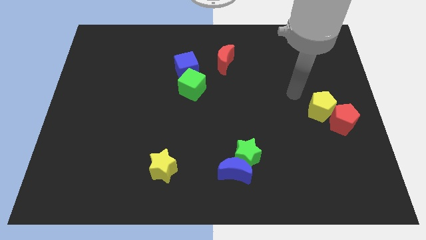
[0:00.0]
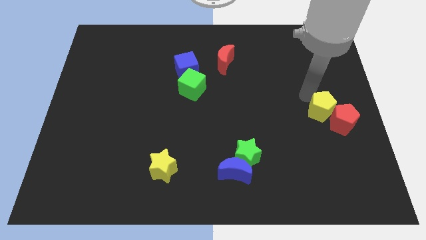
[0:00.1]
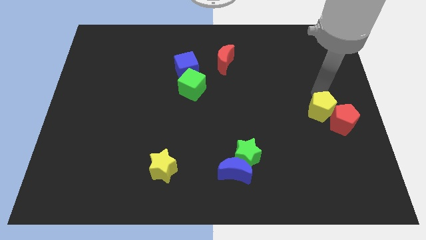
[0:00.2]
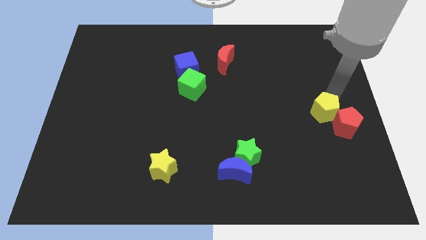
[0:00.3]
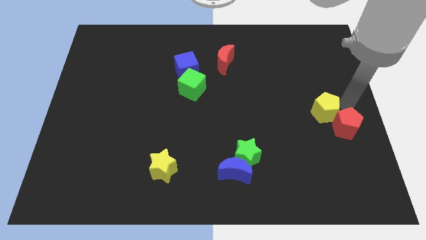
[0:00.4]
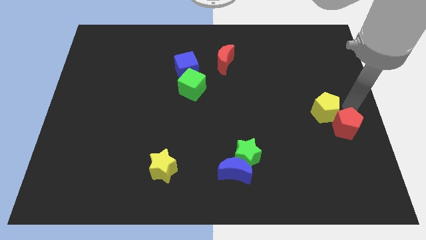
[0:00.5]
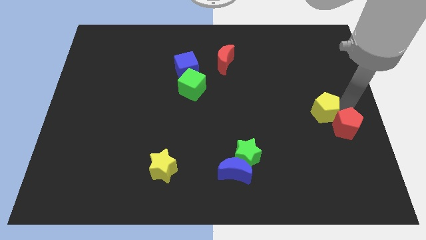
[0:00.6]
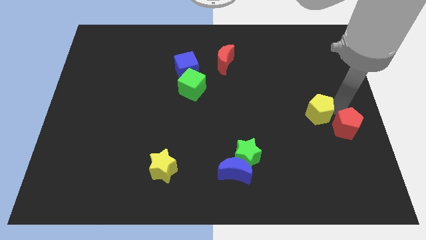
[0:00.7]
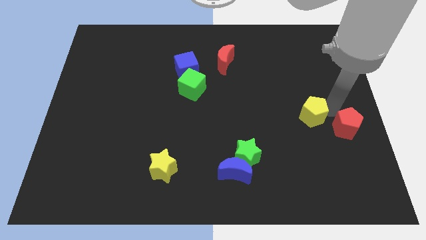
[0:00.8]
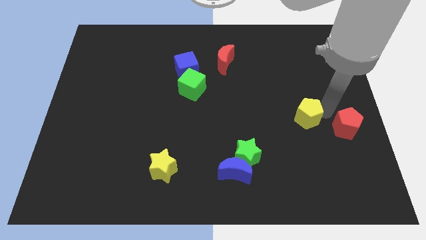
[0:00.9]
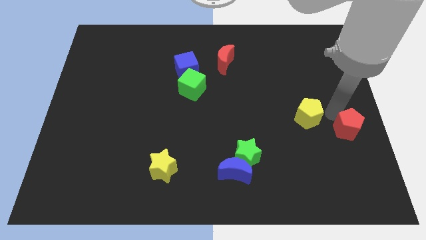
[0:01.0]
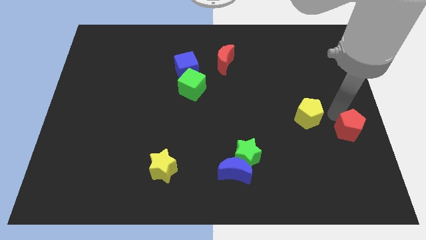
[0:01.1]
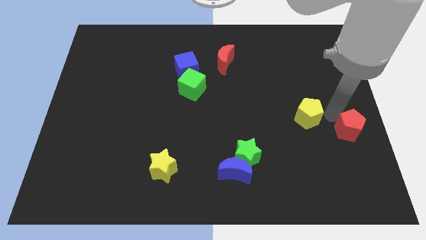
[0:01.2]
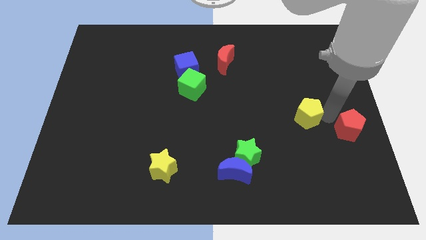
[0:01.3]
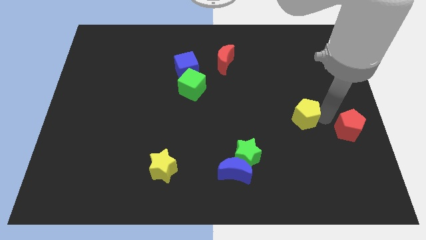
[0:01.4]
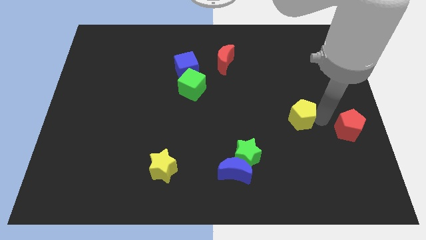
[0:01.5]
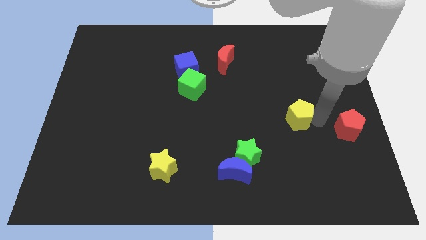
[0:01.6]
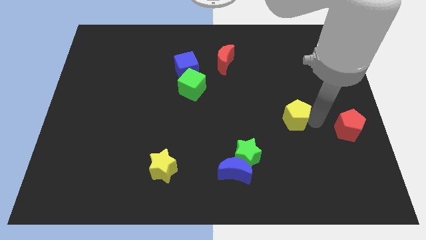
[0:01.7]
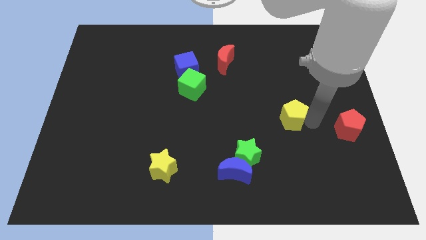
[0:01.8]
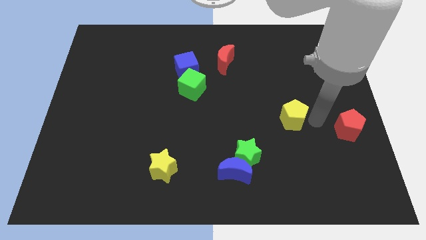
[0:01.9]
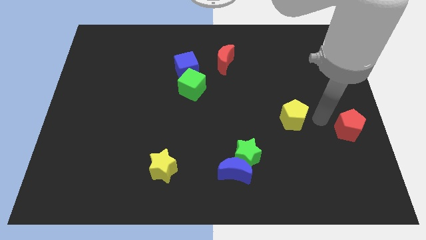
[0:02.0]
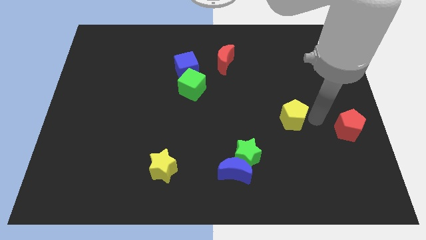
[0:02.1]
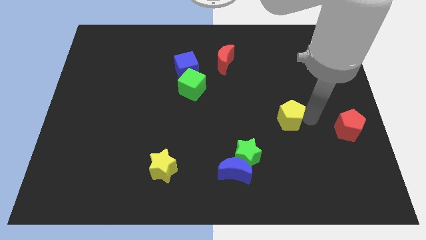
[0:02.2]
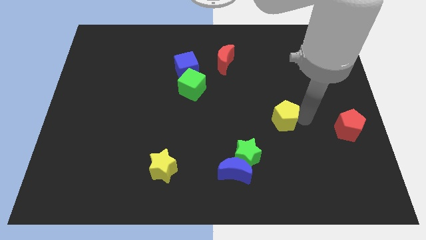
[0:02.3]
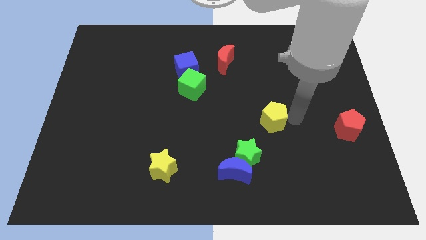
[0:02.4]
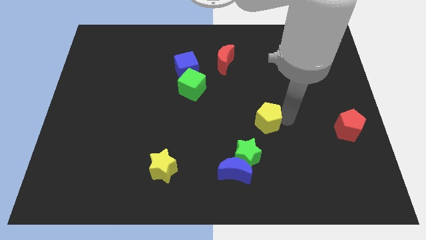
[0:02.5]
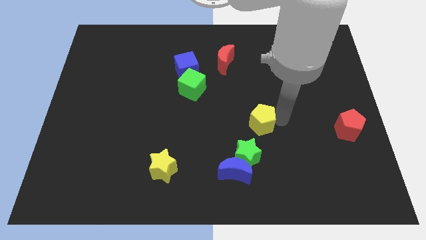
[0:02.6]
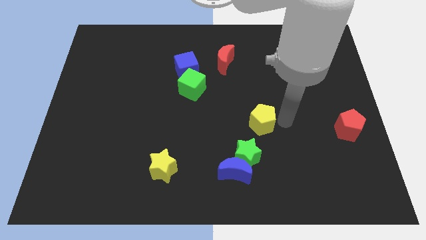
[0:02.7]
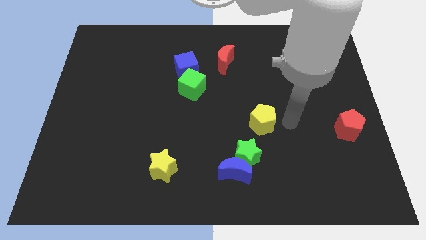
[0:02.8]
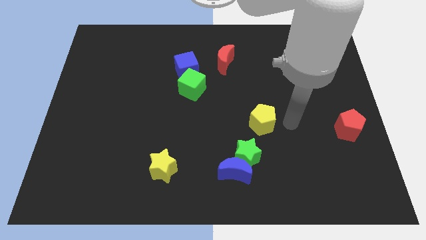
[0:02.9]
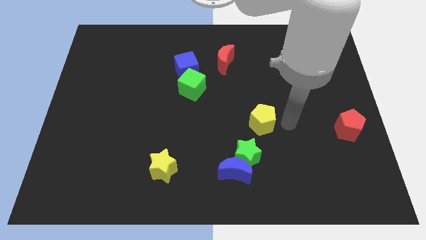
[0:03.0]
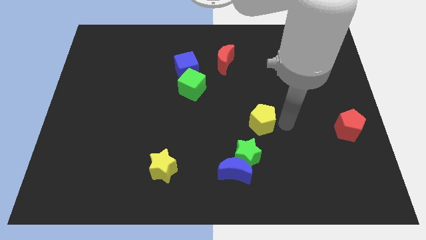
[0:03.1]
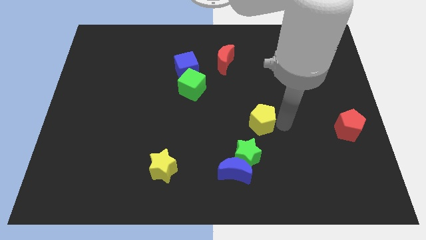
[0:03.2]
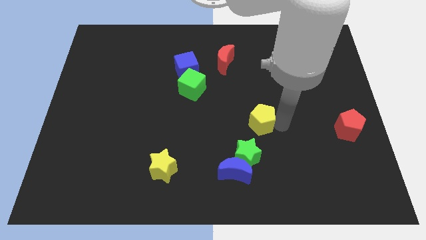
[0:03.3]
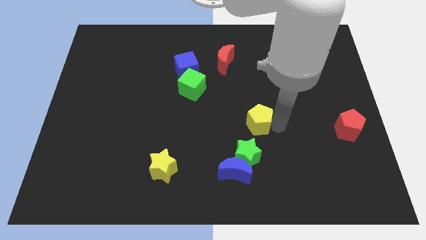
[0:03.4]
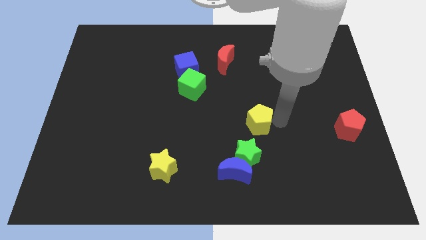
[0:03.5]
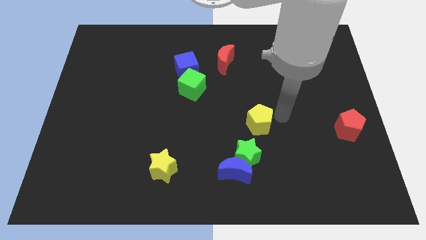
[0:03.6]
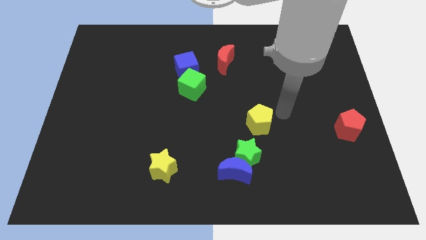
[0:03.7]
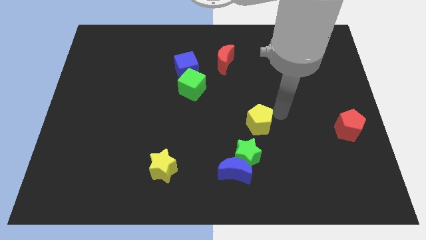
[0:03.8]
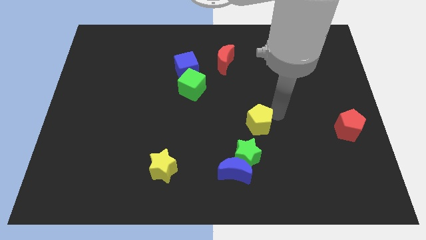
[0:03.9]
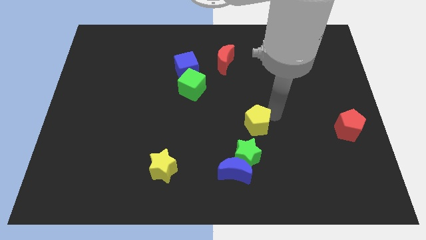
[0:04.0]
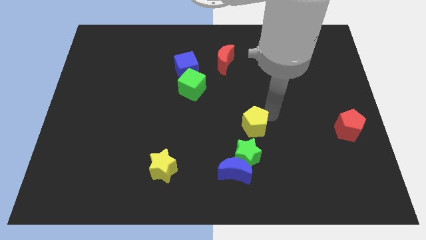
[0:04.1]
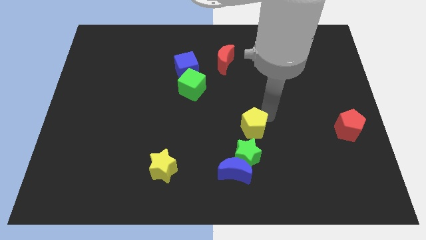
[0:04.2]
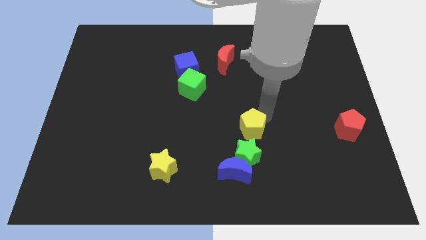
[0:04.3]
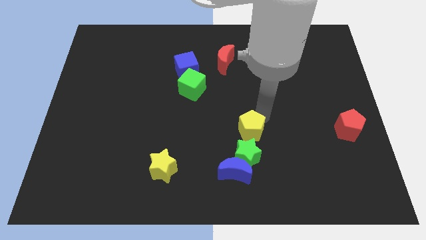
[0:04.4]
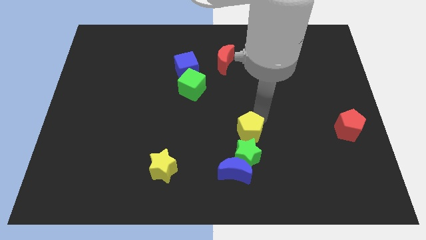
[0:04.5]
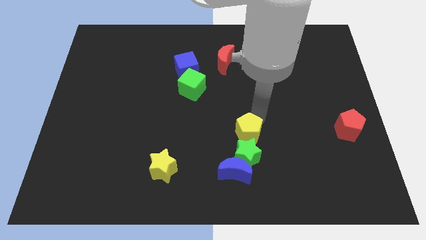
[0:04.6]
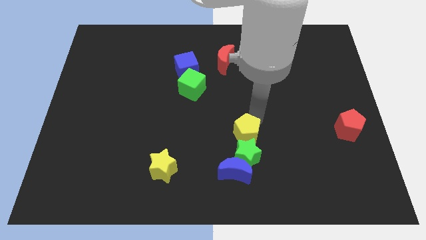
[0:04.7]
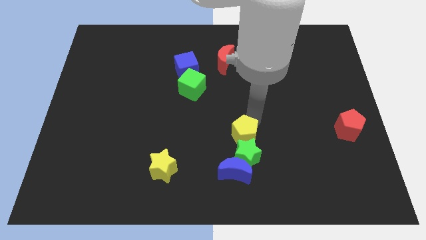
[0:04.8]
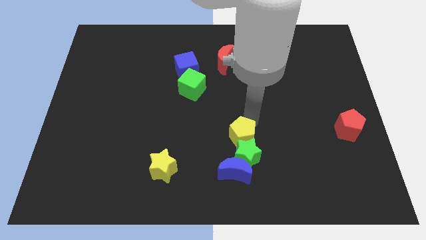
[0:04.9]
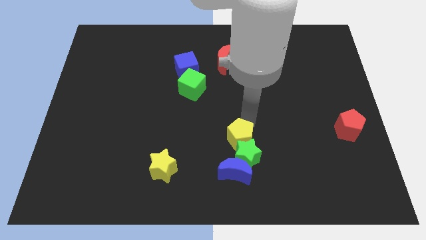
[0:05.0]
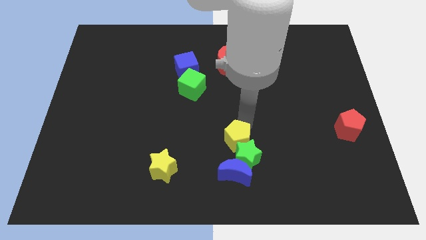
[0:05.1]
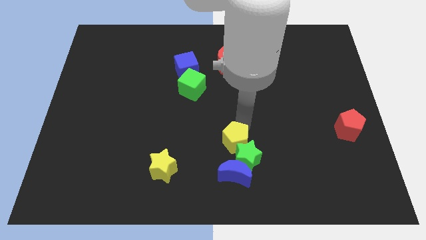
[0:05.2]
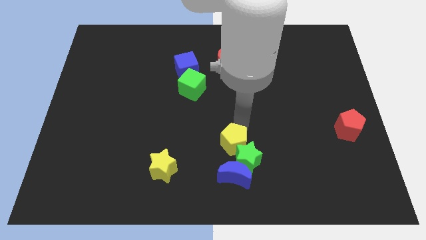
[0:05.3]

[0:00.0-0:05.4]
push the yellow pentagon to the left of the green star

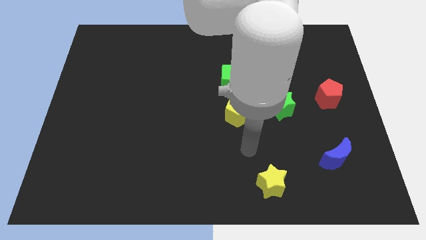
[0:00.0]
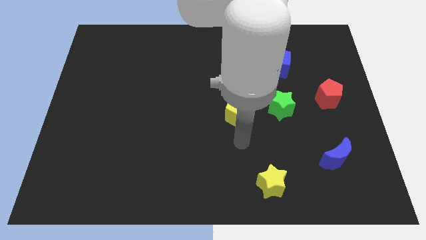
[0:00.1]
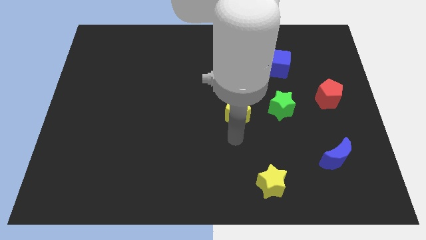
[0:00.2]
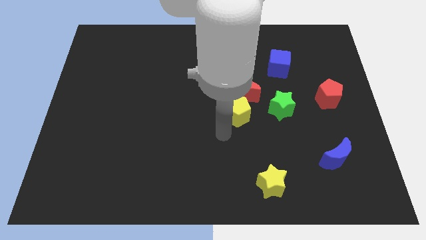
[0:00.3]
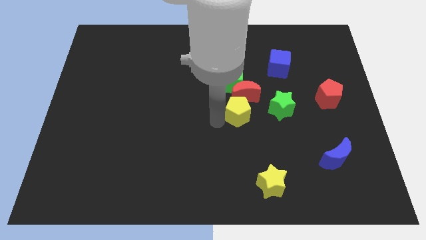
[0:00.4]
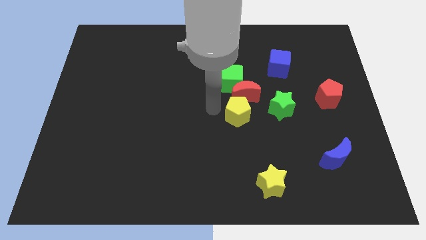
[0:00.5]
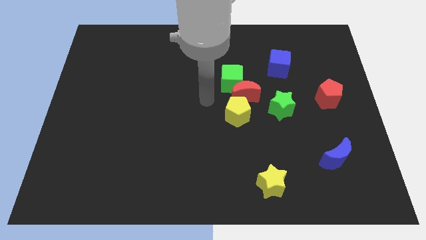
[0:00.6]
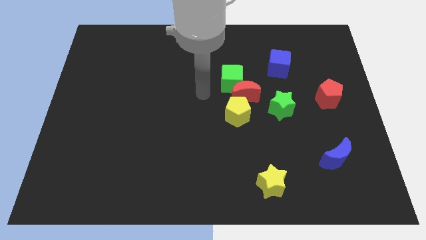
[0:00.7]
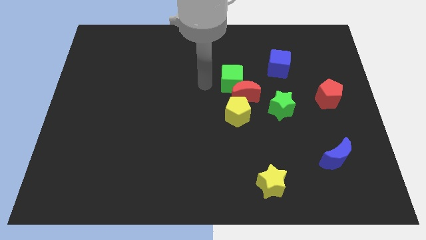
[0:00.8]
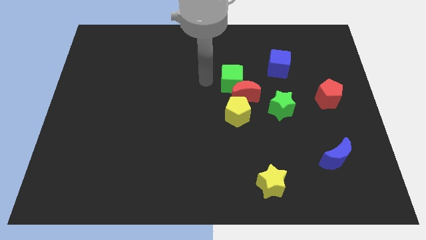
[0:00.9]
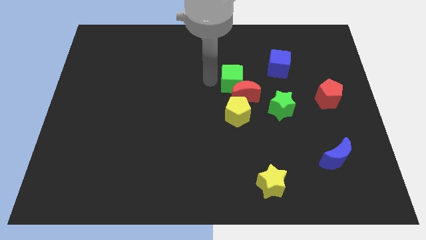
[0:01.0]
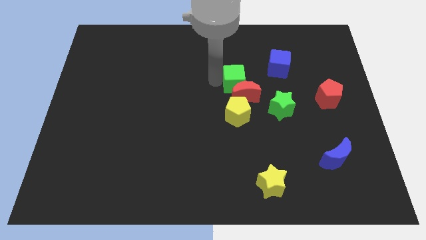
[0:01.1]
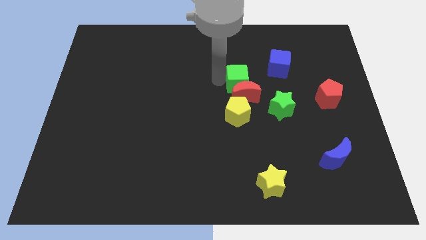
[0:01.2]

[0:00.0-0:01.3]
push the green cube diagonally up and to the left of the green star
